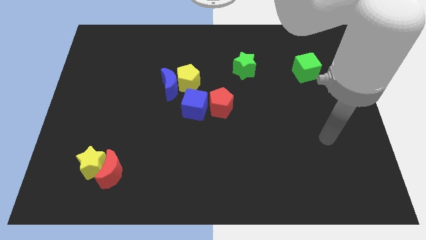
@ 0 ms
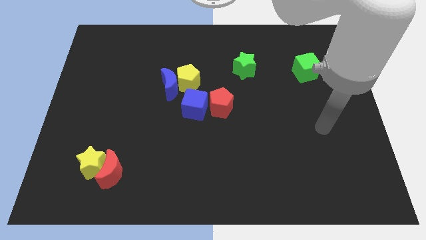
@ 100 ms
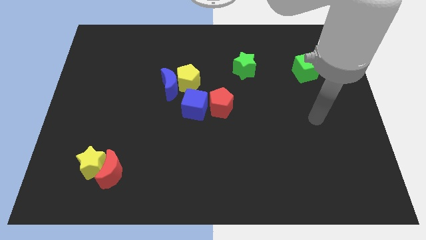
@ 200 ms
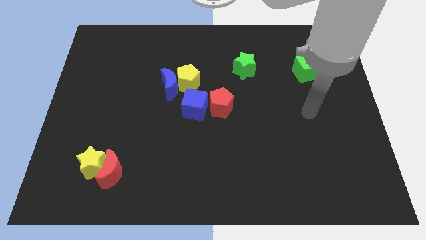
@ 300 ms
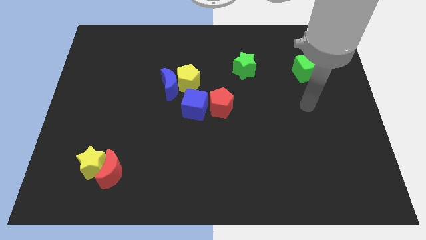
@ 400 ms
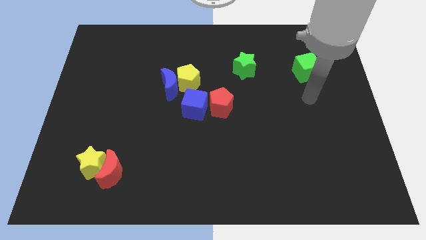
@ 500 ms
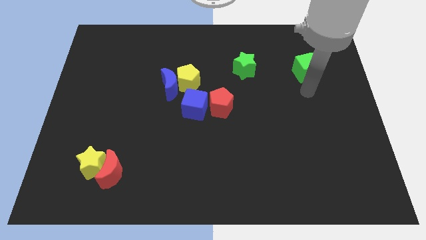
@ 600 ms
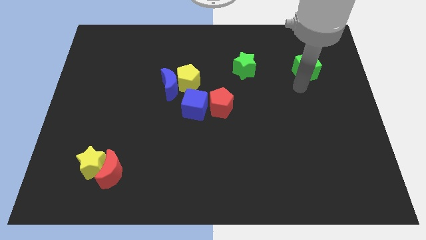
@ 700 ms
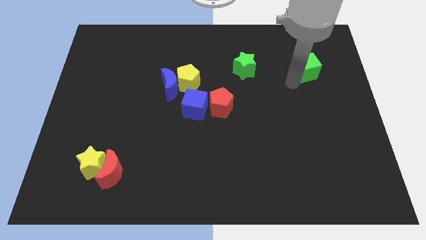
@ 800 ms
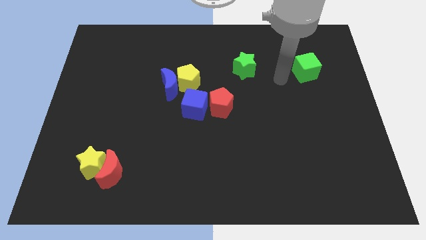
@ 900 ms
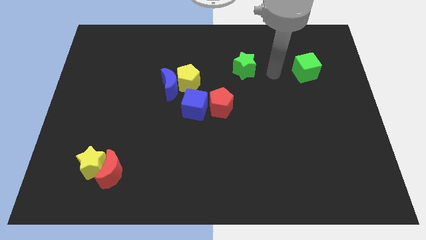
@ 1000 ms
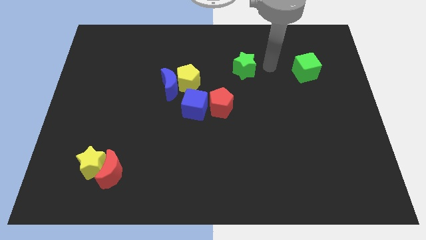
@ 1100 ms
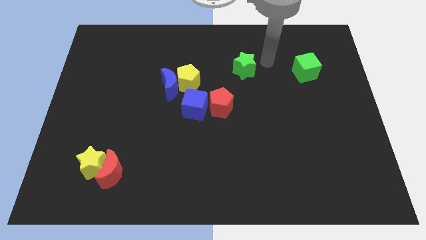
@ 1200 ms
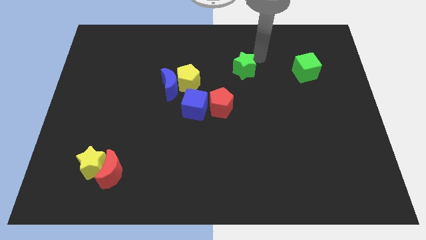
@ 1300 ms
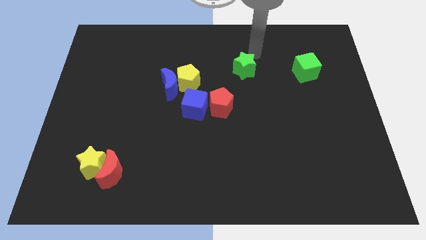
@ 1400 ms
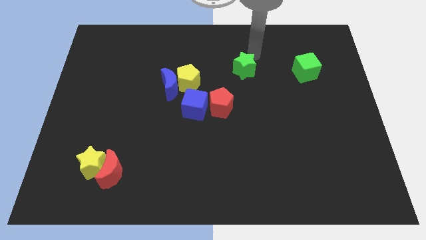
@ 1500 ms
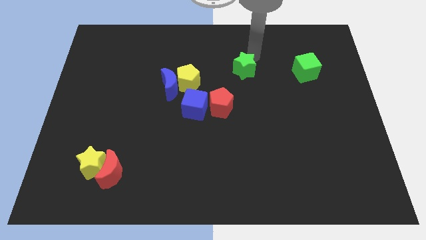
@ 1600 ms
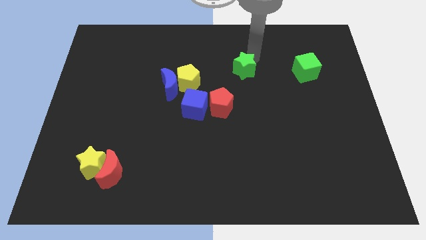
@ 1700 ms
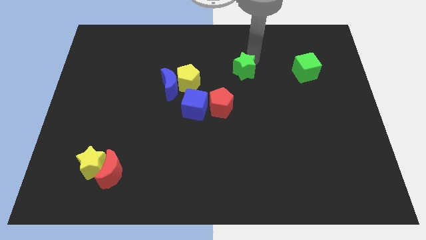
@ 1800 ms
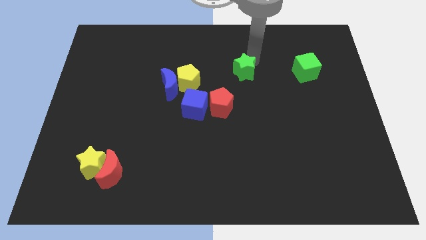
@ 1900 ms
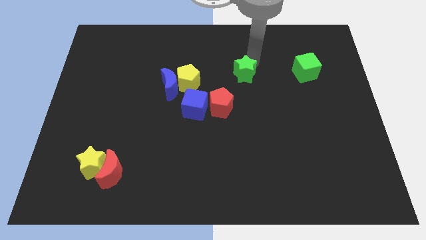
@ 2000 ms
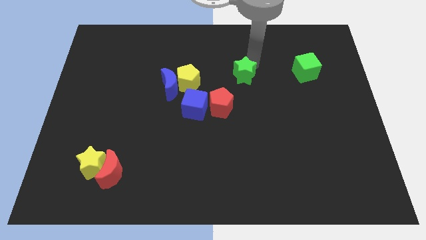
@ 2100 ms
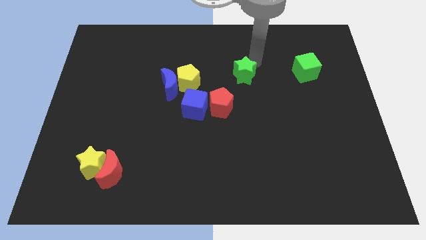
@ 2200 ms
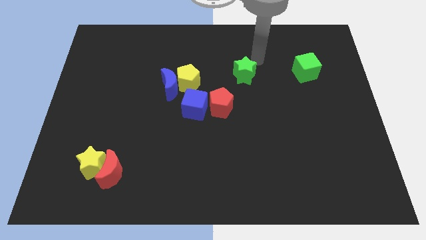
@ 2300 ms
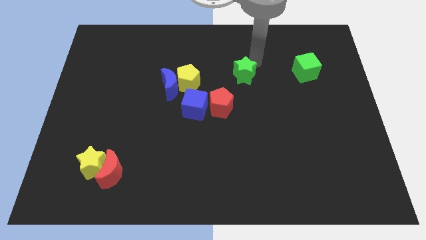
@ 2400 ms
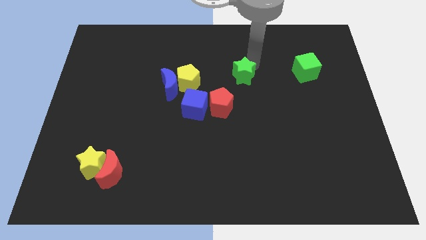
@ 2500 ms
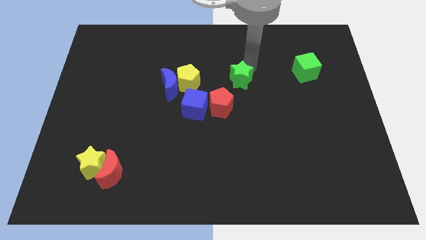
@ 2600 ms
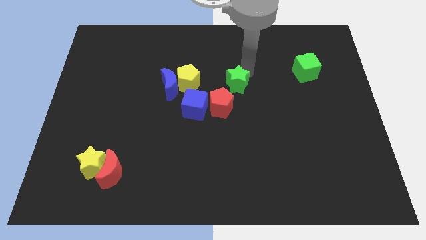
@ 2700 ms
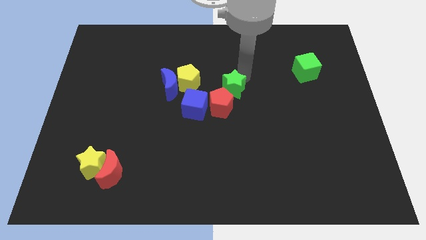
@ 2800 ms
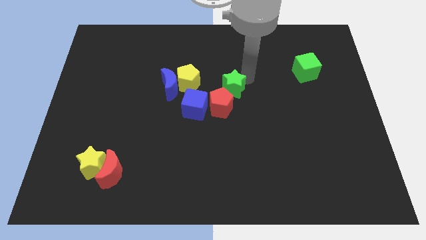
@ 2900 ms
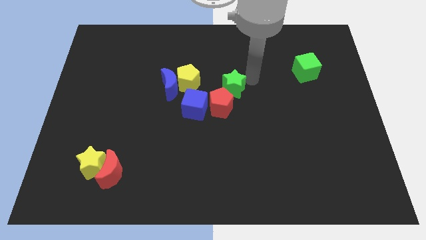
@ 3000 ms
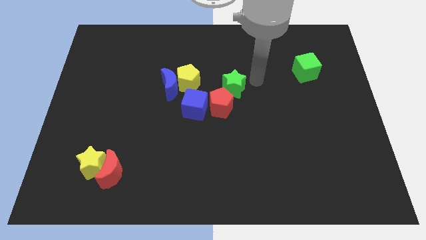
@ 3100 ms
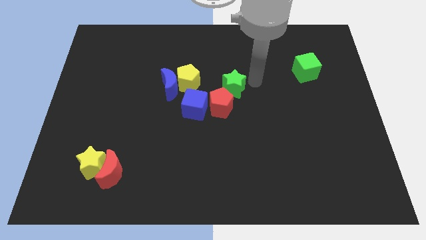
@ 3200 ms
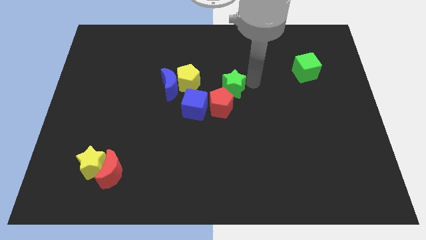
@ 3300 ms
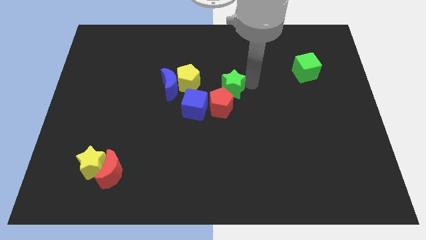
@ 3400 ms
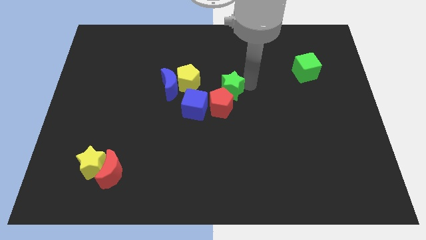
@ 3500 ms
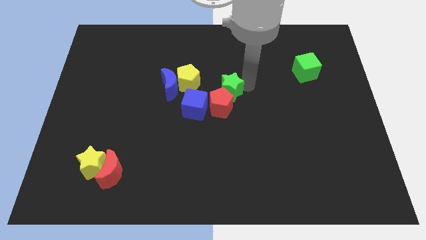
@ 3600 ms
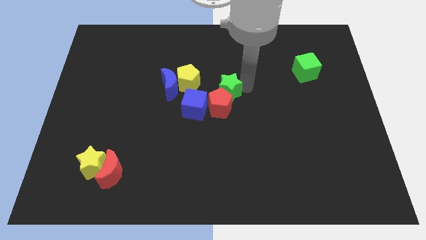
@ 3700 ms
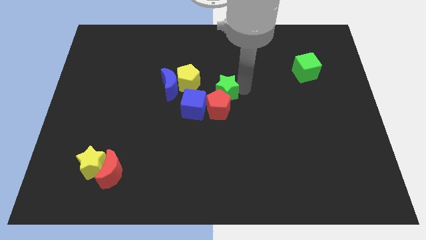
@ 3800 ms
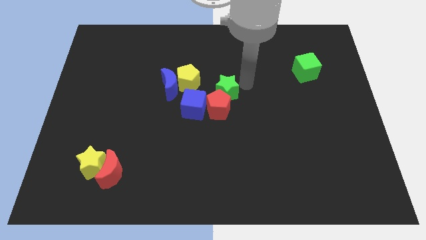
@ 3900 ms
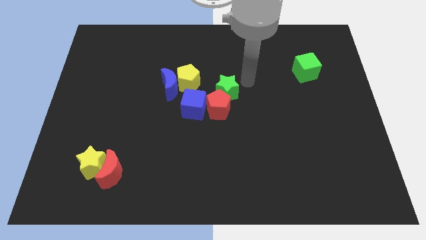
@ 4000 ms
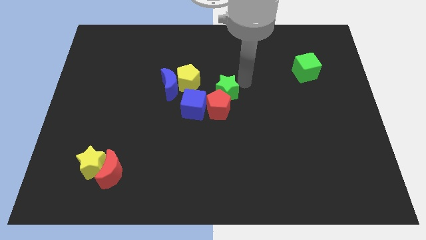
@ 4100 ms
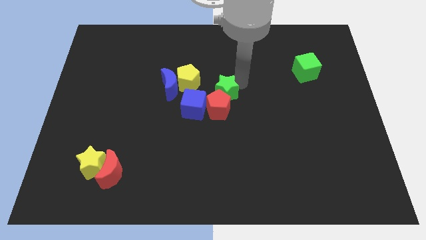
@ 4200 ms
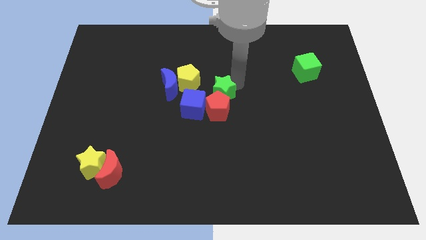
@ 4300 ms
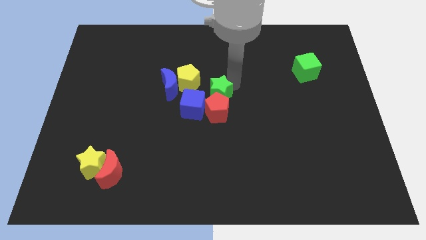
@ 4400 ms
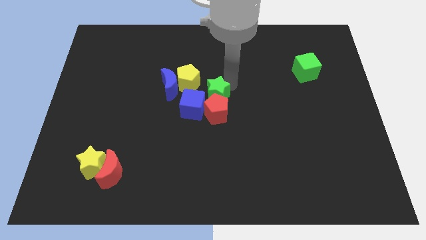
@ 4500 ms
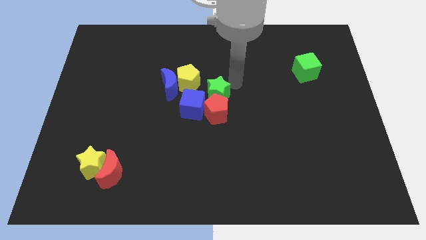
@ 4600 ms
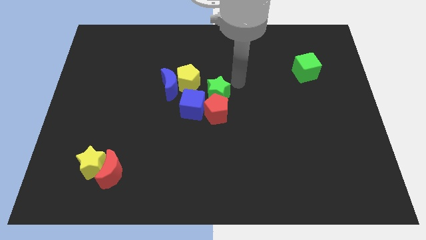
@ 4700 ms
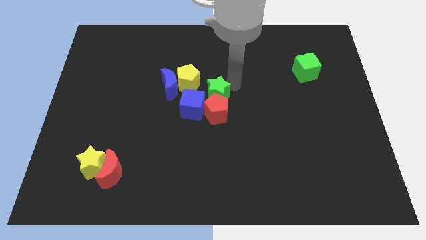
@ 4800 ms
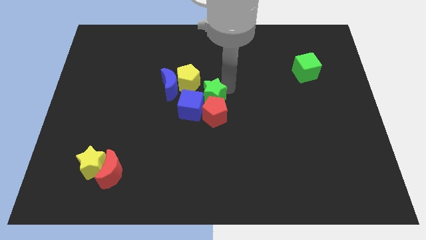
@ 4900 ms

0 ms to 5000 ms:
push the green star next to the blue cube

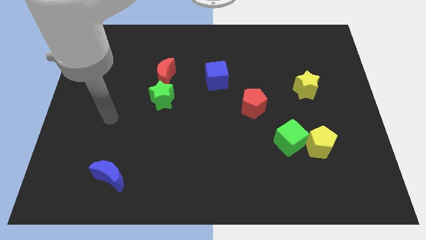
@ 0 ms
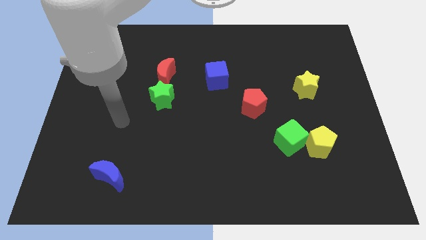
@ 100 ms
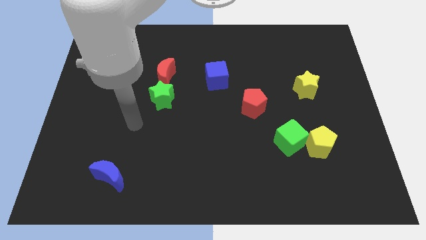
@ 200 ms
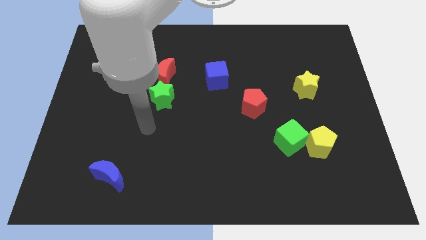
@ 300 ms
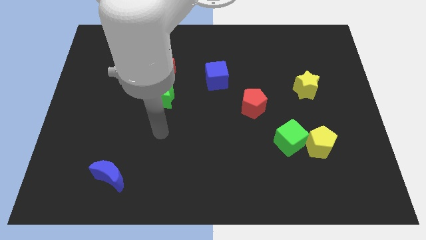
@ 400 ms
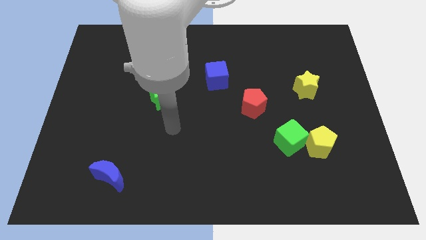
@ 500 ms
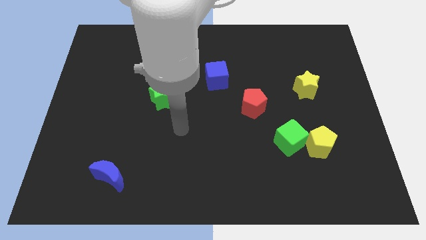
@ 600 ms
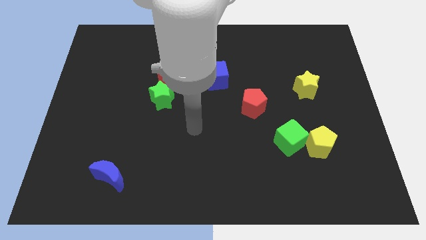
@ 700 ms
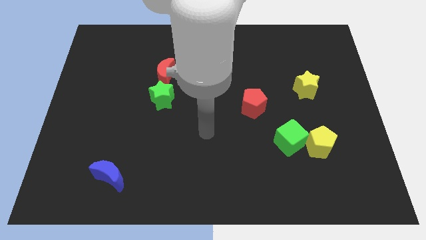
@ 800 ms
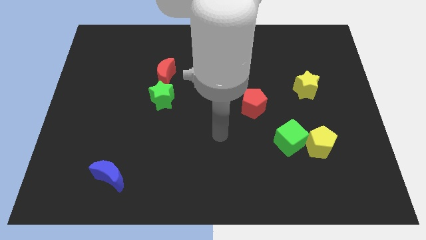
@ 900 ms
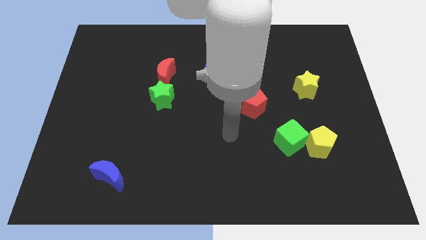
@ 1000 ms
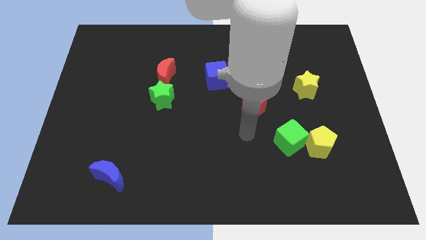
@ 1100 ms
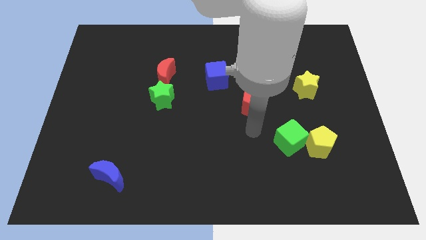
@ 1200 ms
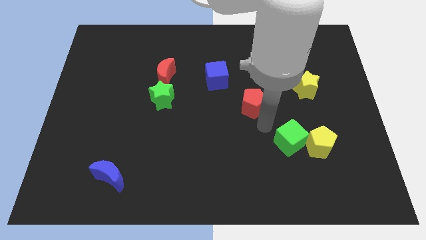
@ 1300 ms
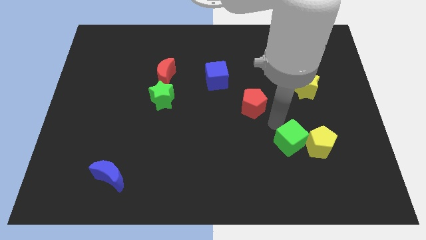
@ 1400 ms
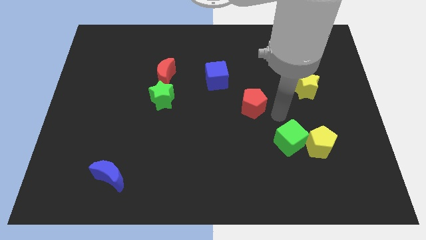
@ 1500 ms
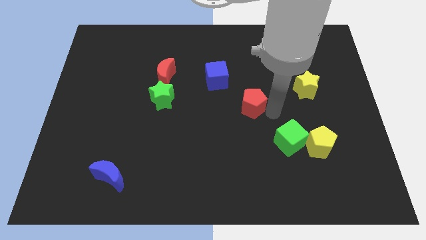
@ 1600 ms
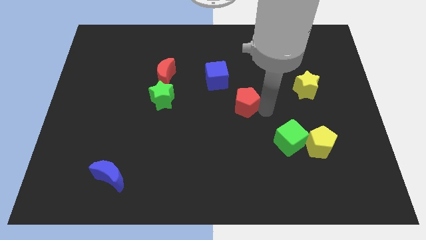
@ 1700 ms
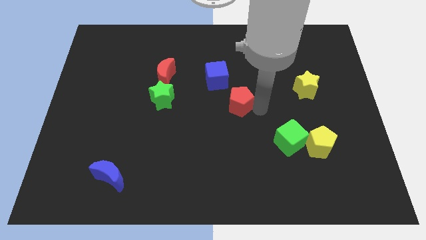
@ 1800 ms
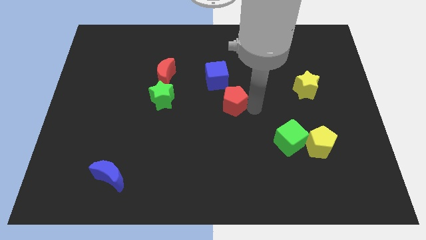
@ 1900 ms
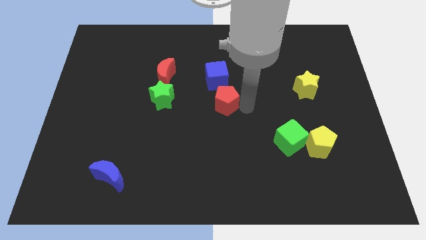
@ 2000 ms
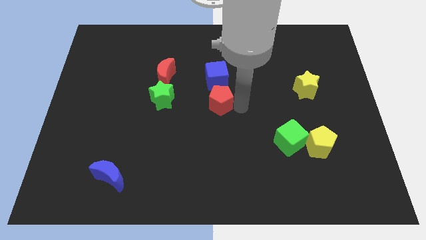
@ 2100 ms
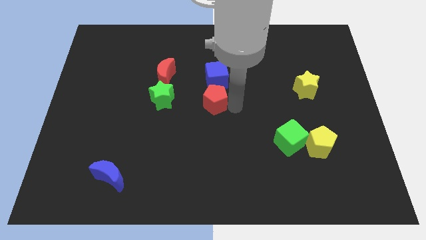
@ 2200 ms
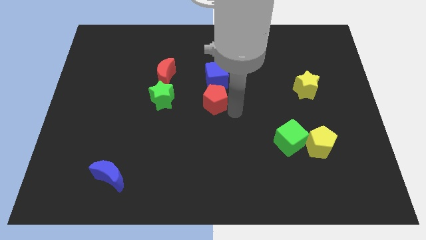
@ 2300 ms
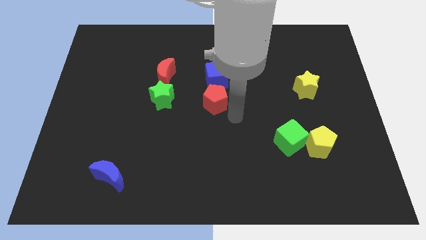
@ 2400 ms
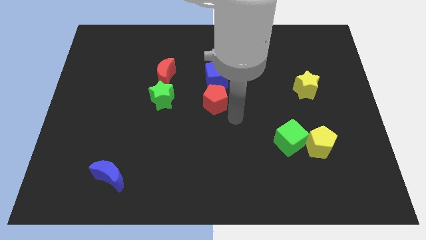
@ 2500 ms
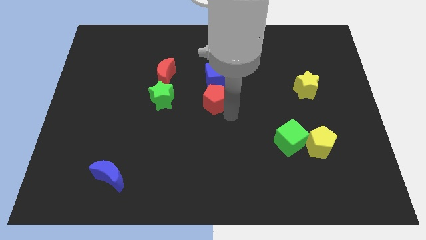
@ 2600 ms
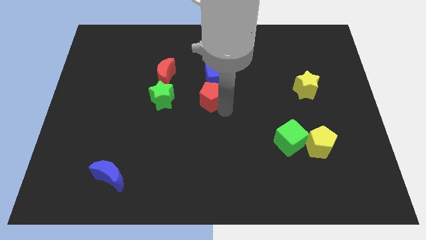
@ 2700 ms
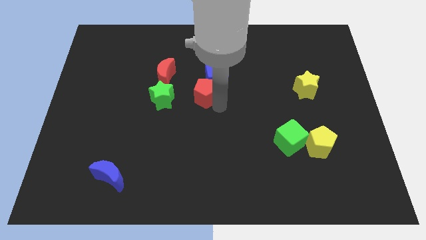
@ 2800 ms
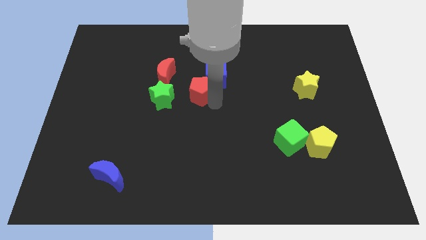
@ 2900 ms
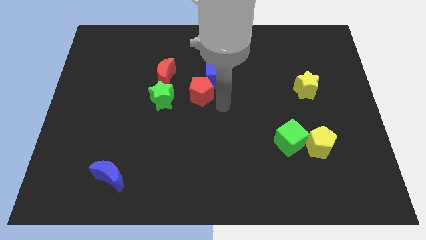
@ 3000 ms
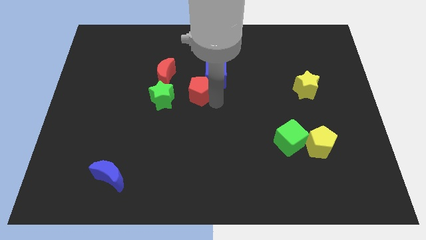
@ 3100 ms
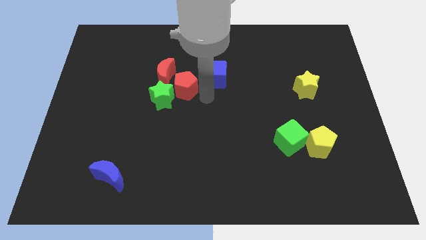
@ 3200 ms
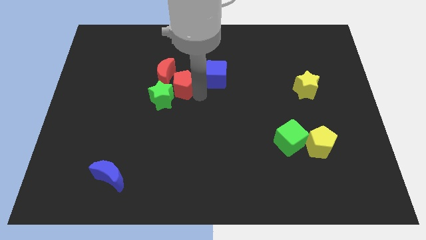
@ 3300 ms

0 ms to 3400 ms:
put the red pentagon next to the red moon
